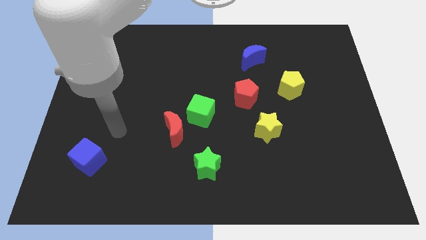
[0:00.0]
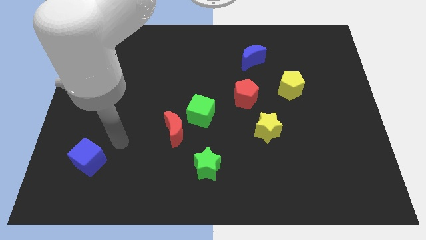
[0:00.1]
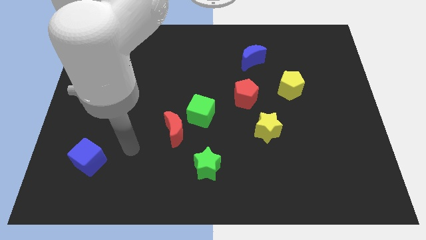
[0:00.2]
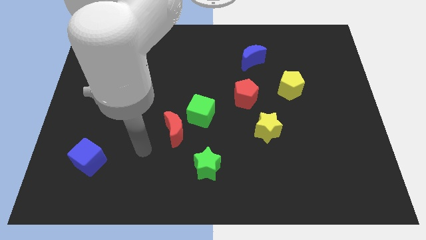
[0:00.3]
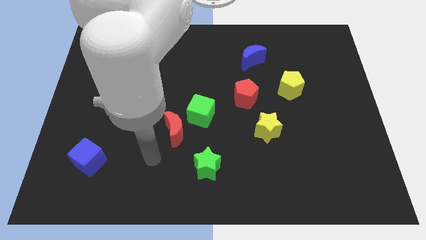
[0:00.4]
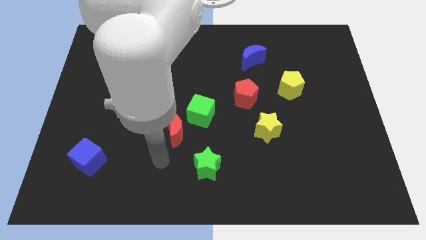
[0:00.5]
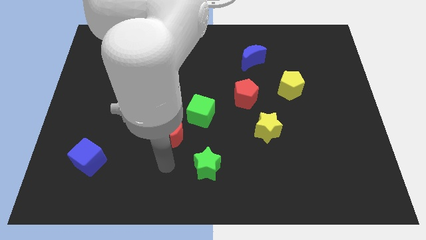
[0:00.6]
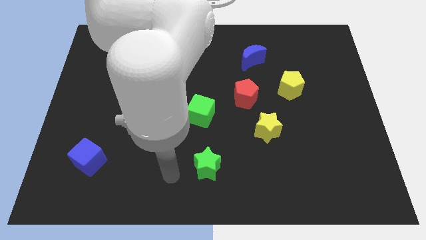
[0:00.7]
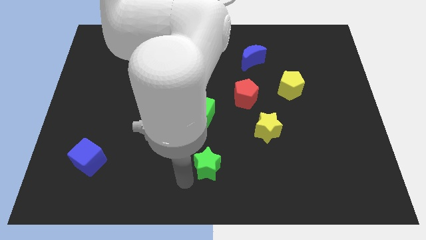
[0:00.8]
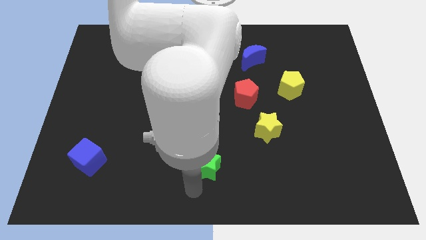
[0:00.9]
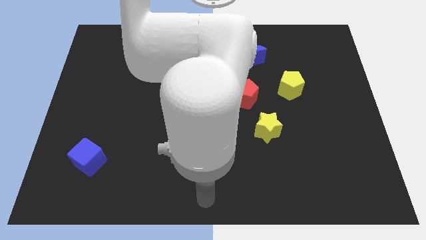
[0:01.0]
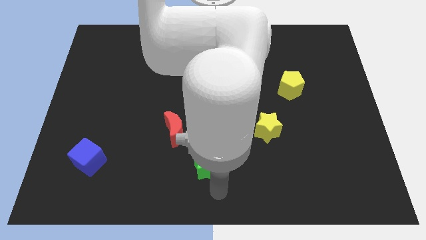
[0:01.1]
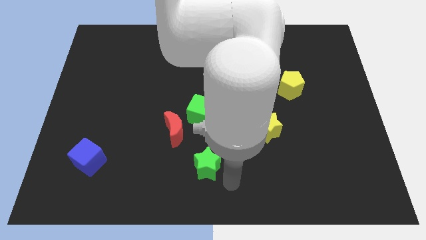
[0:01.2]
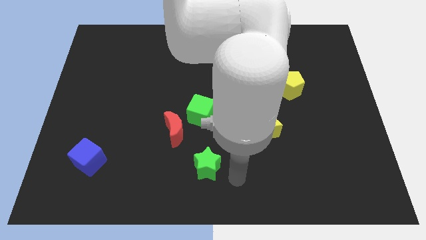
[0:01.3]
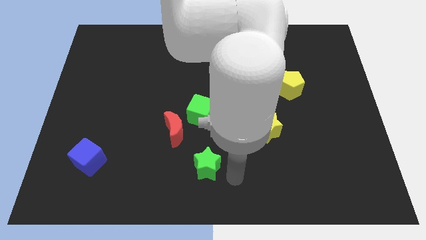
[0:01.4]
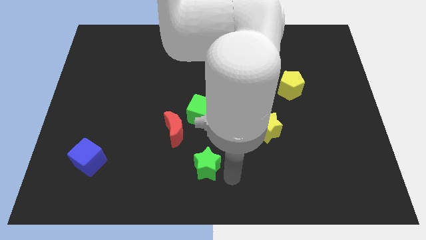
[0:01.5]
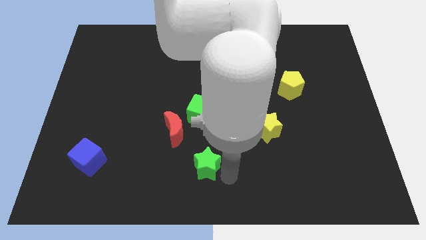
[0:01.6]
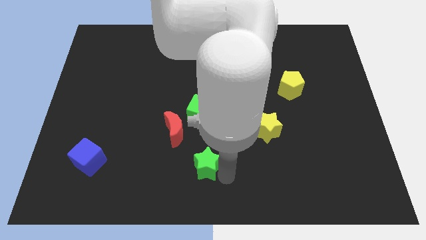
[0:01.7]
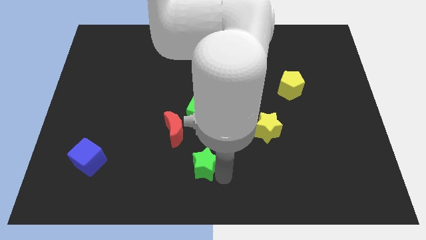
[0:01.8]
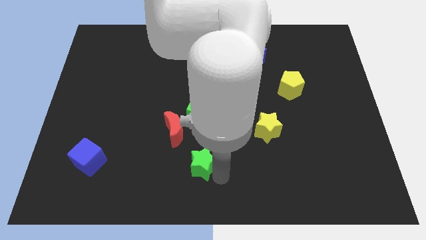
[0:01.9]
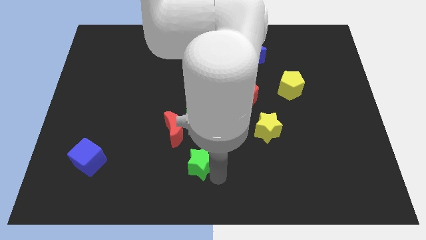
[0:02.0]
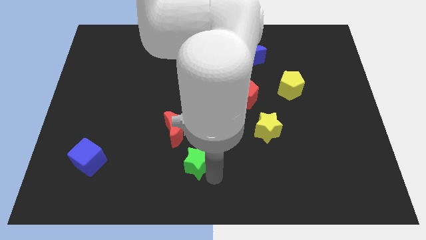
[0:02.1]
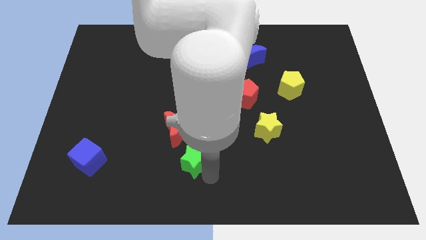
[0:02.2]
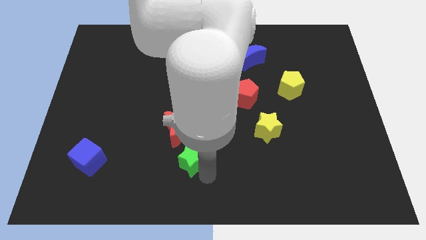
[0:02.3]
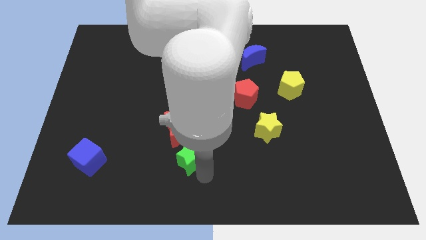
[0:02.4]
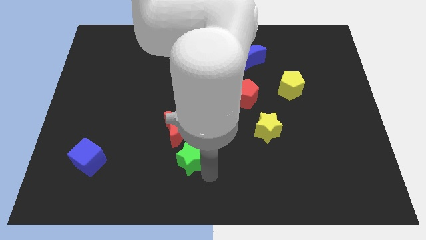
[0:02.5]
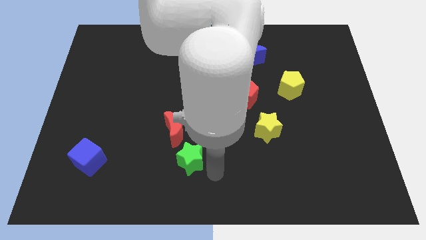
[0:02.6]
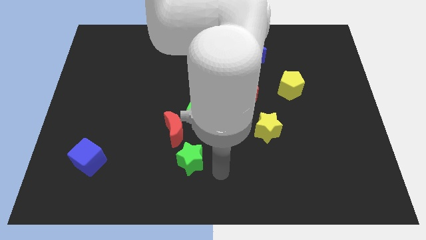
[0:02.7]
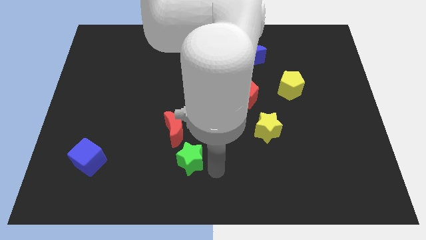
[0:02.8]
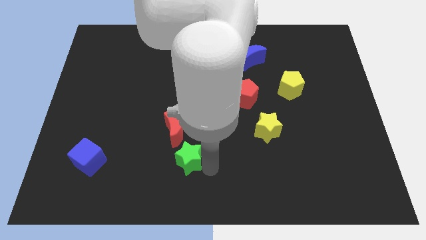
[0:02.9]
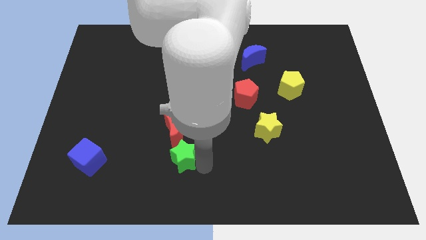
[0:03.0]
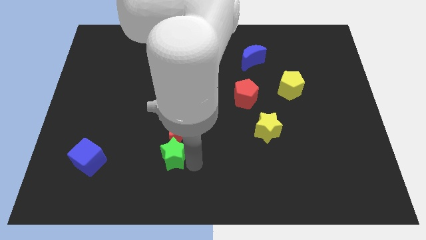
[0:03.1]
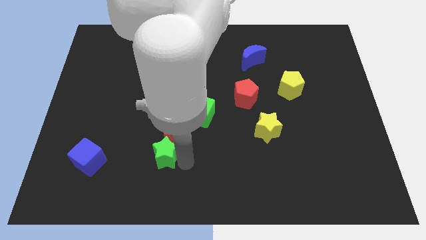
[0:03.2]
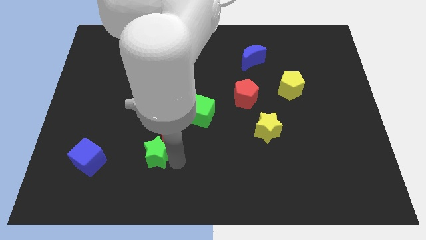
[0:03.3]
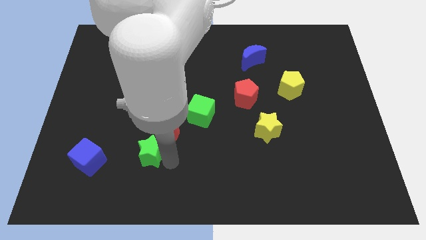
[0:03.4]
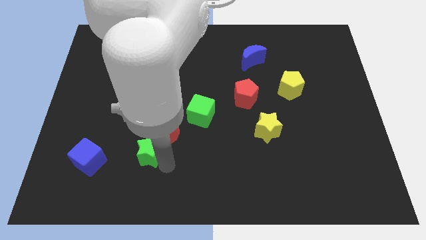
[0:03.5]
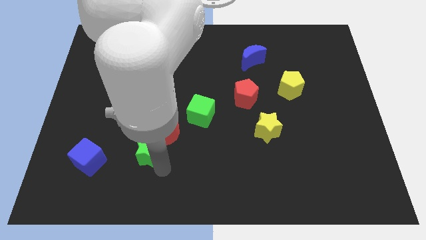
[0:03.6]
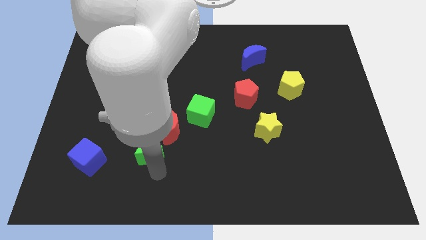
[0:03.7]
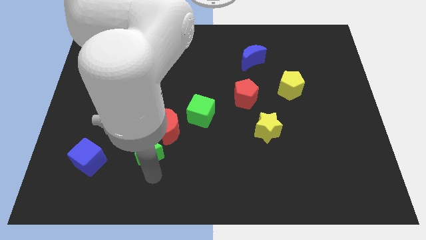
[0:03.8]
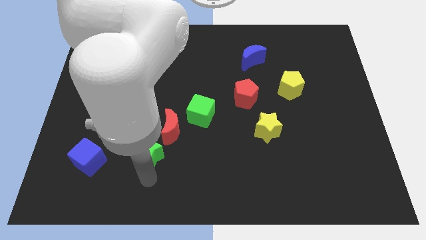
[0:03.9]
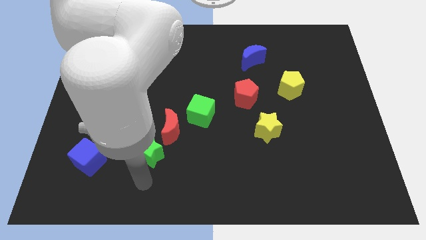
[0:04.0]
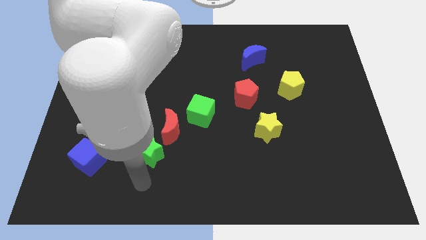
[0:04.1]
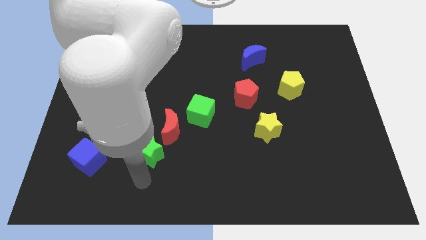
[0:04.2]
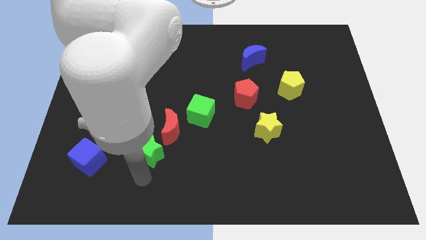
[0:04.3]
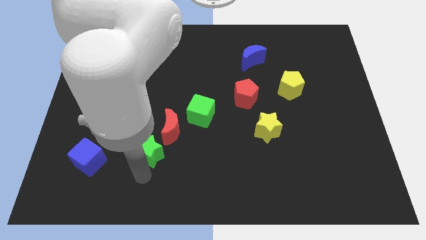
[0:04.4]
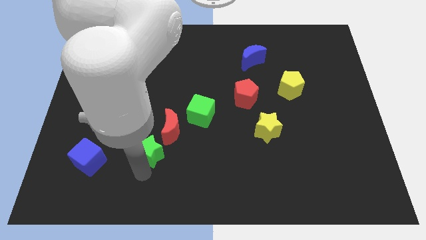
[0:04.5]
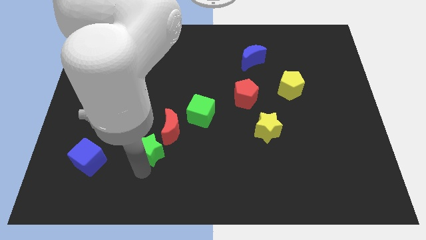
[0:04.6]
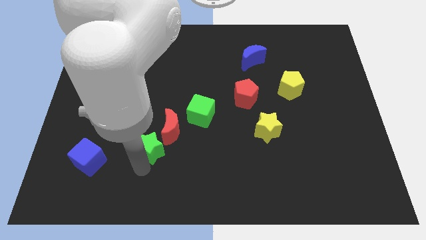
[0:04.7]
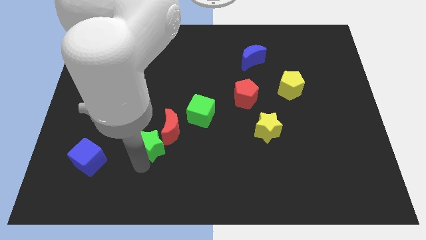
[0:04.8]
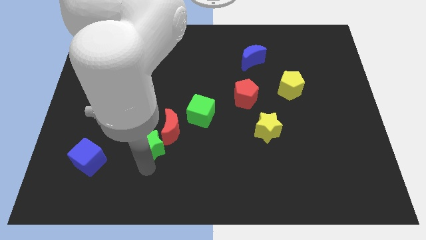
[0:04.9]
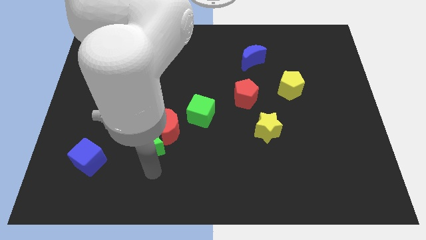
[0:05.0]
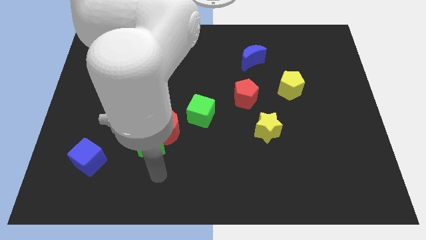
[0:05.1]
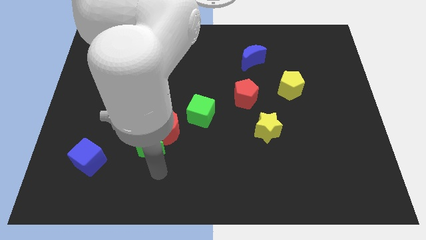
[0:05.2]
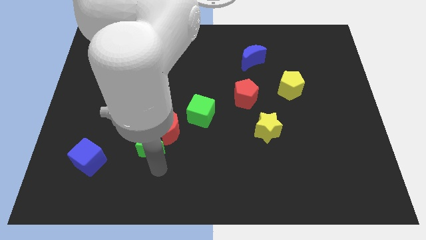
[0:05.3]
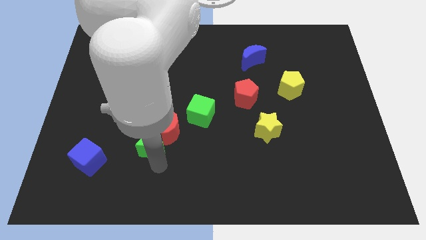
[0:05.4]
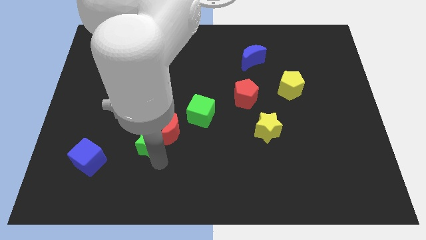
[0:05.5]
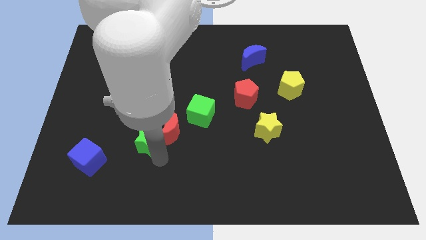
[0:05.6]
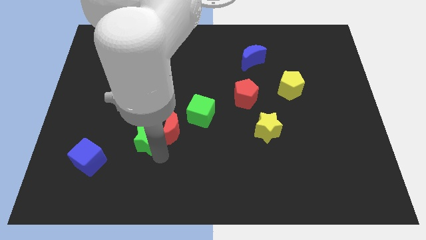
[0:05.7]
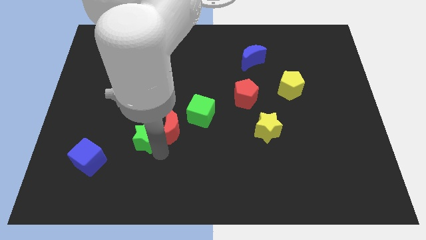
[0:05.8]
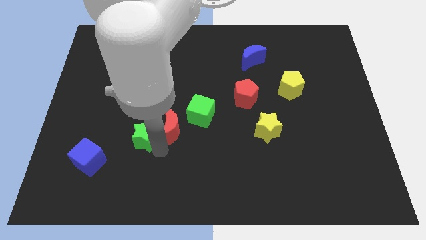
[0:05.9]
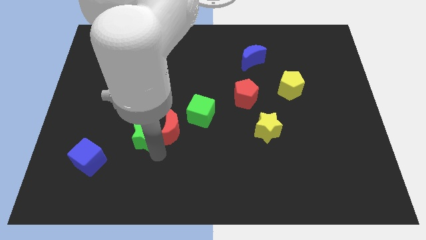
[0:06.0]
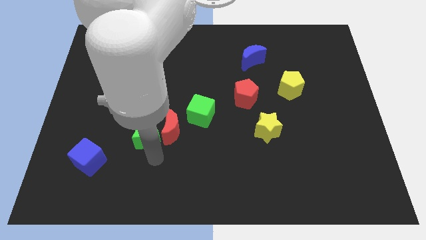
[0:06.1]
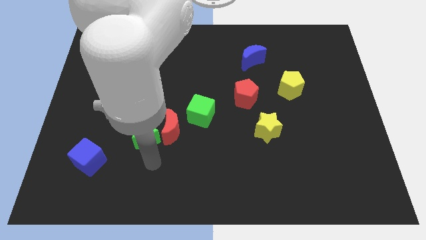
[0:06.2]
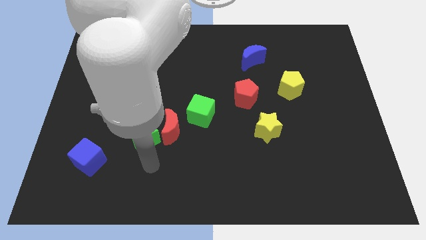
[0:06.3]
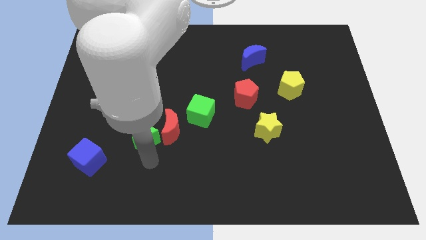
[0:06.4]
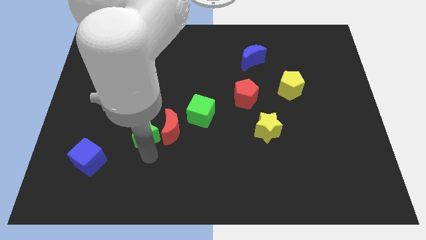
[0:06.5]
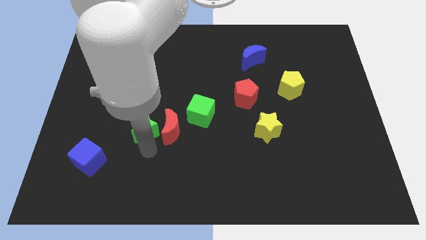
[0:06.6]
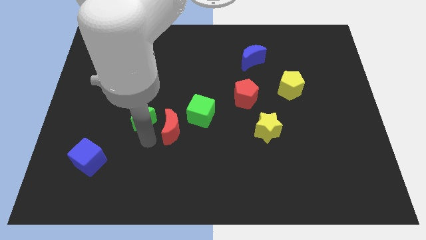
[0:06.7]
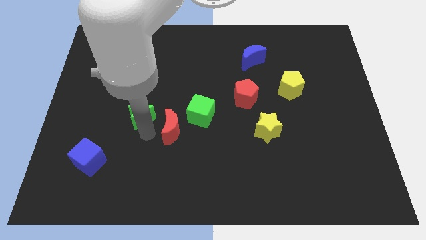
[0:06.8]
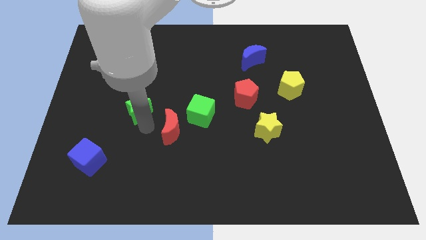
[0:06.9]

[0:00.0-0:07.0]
move the green star diagonally upwards and left

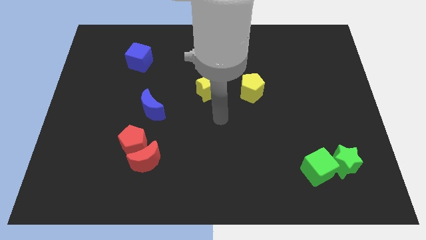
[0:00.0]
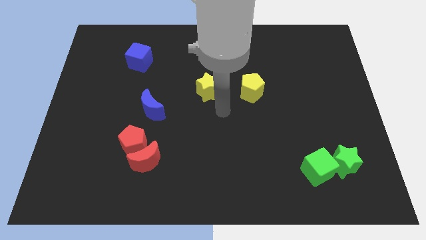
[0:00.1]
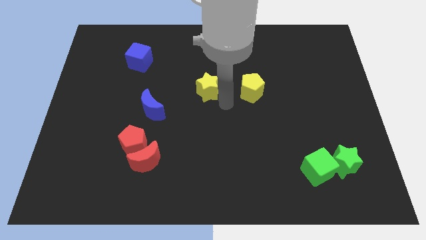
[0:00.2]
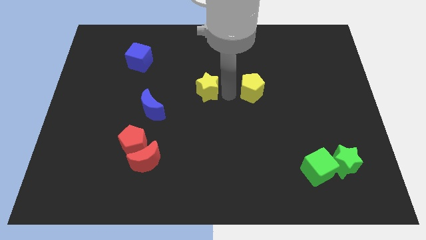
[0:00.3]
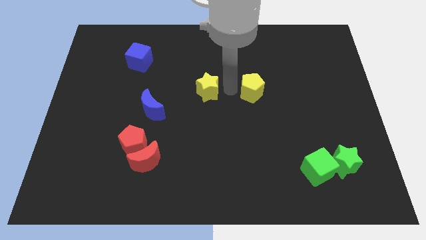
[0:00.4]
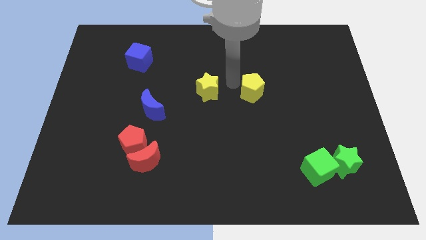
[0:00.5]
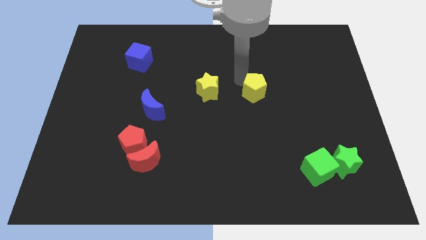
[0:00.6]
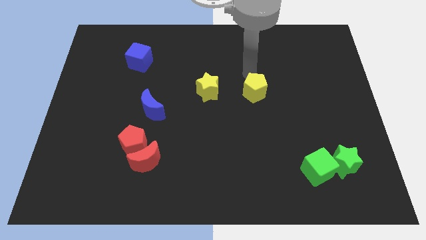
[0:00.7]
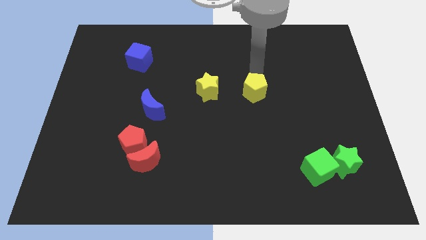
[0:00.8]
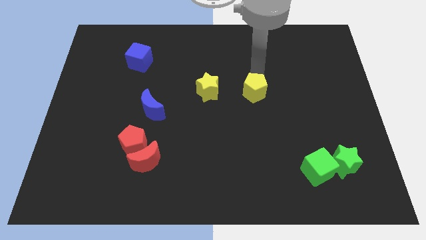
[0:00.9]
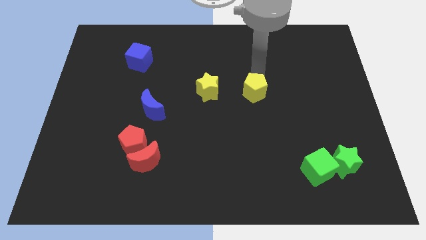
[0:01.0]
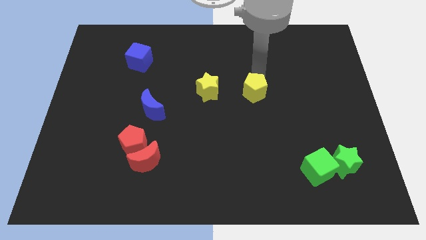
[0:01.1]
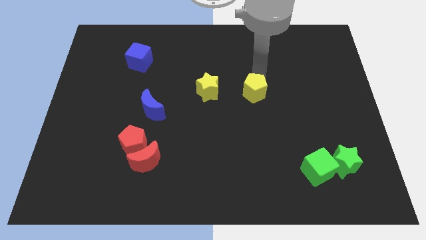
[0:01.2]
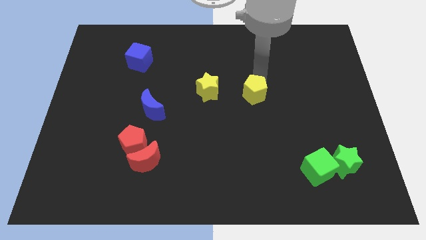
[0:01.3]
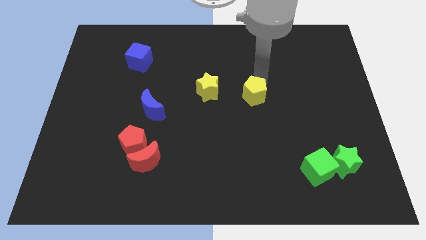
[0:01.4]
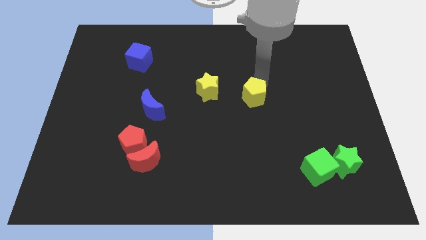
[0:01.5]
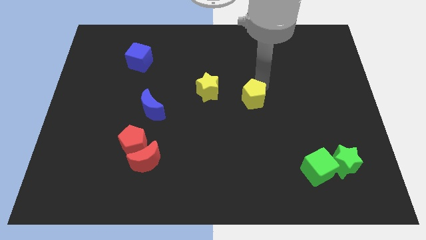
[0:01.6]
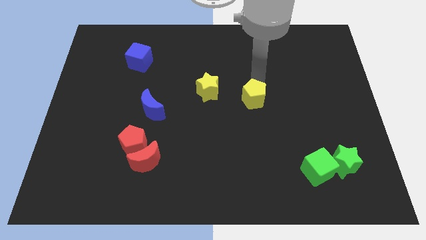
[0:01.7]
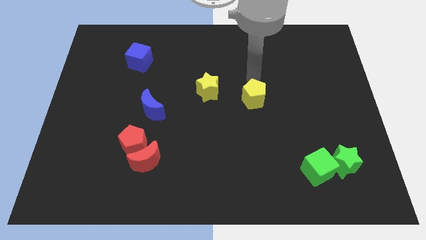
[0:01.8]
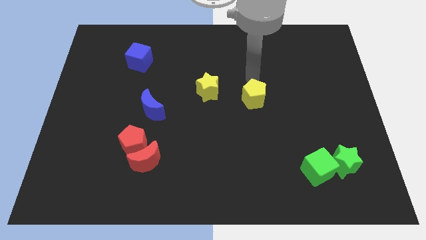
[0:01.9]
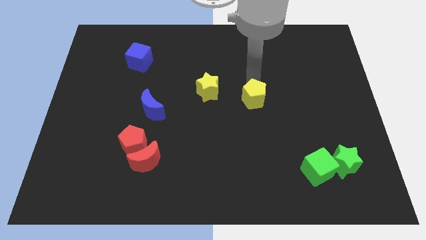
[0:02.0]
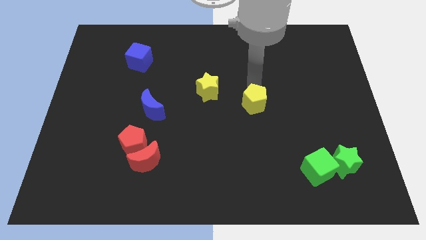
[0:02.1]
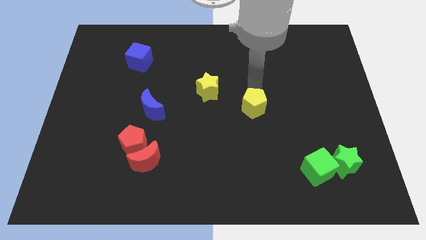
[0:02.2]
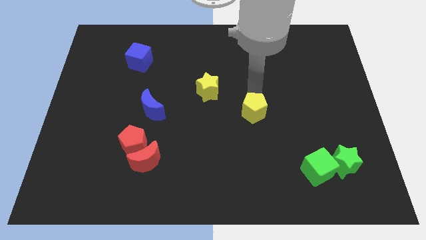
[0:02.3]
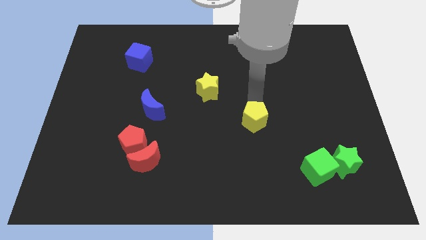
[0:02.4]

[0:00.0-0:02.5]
push the yellow pentagon downwards a little bit
